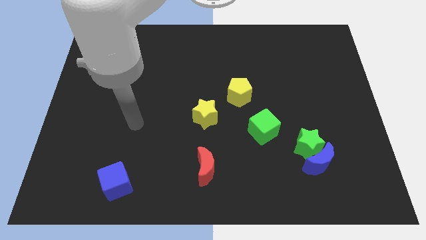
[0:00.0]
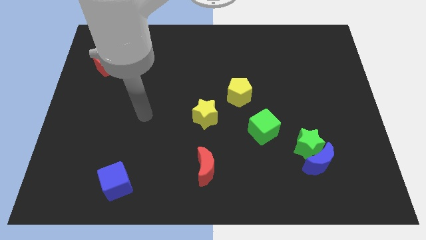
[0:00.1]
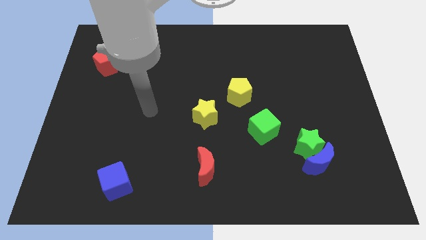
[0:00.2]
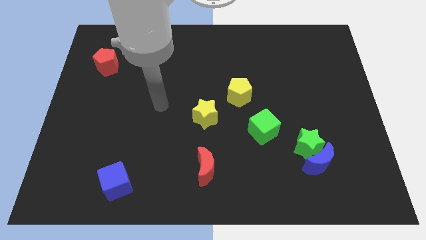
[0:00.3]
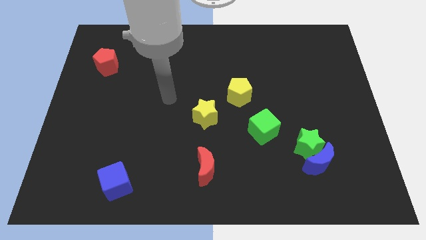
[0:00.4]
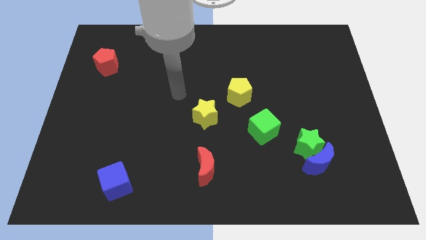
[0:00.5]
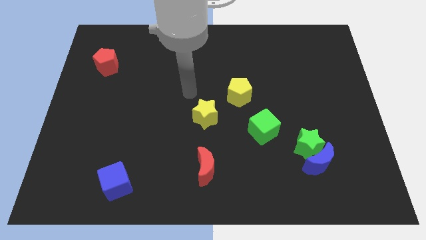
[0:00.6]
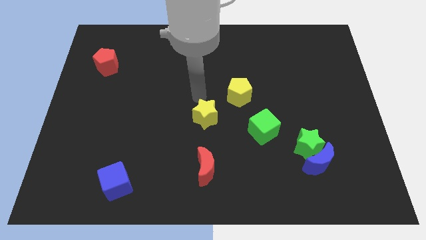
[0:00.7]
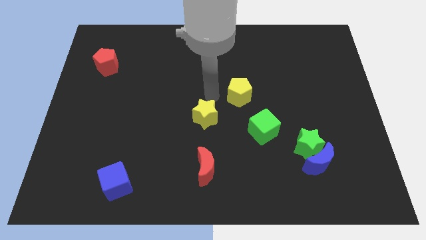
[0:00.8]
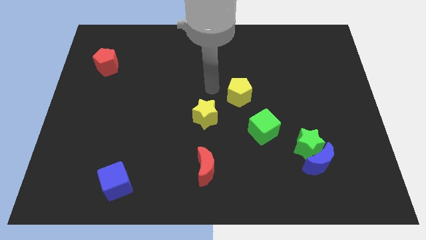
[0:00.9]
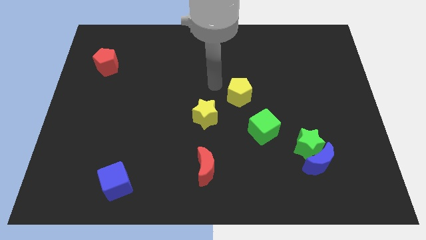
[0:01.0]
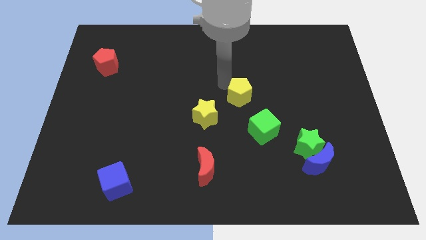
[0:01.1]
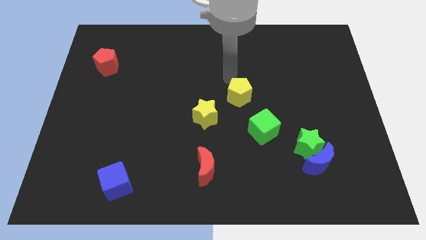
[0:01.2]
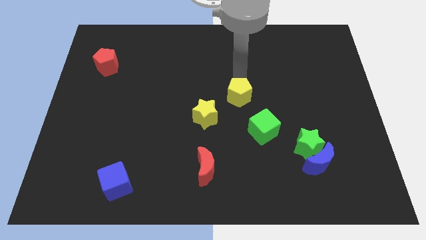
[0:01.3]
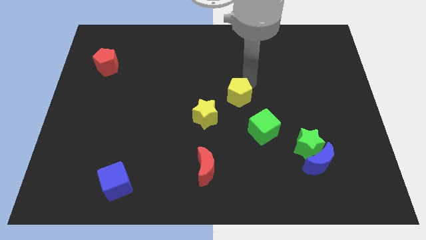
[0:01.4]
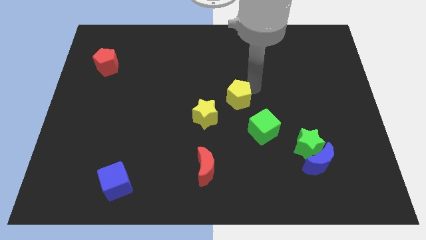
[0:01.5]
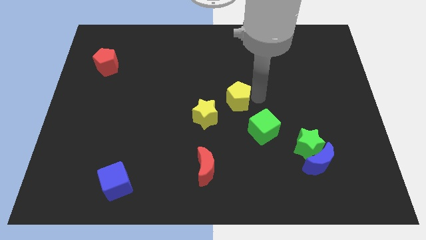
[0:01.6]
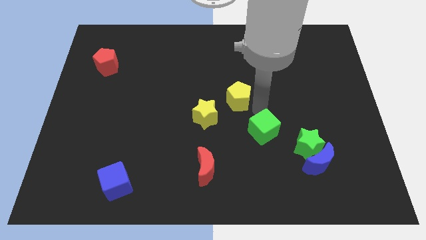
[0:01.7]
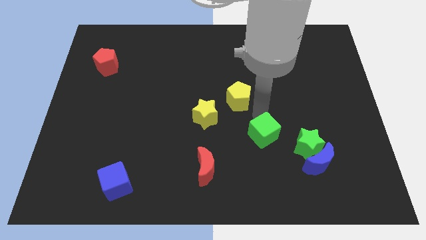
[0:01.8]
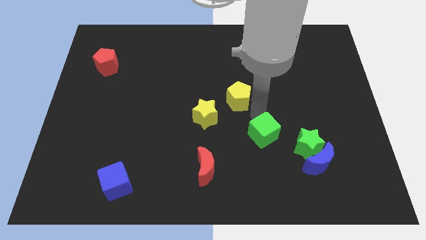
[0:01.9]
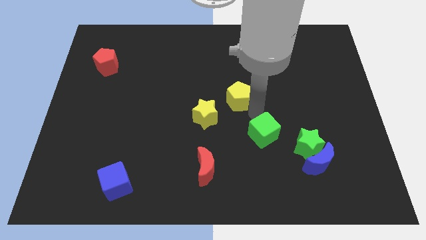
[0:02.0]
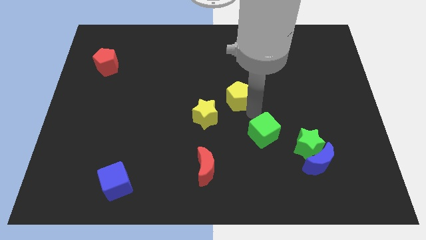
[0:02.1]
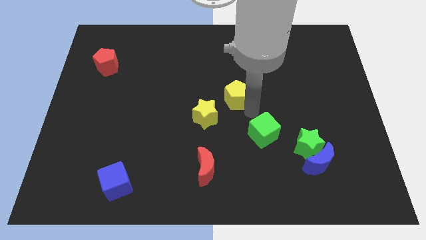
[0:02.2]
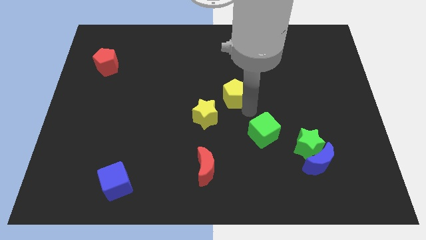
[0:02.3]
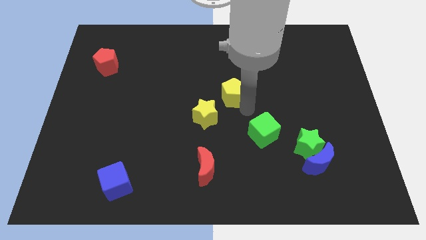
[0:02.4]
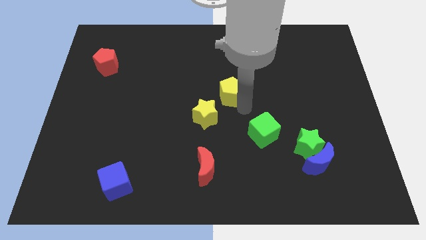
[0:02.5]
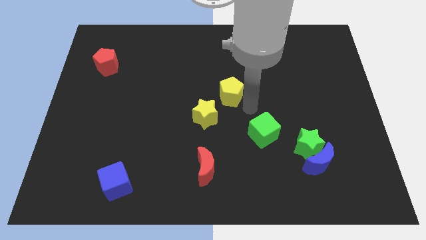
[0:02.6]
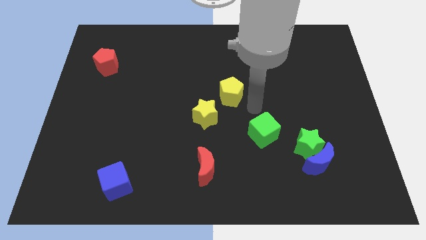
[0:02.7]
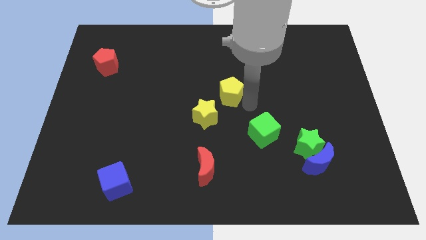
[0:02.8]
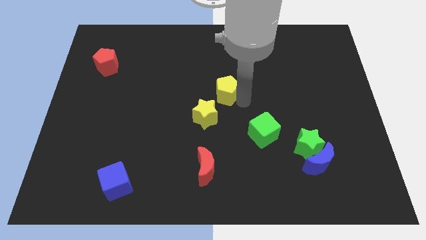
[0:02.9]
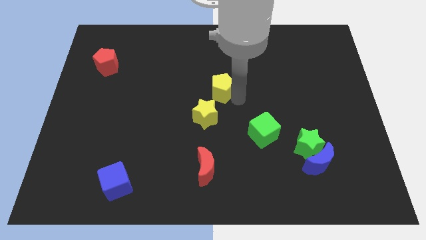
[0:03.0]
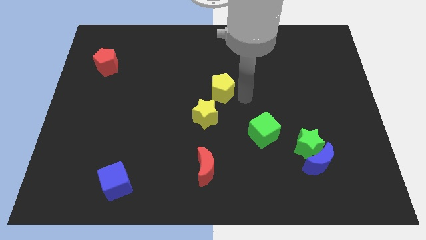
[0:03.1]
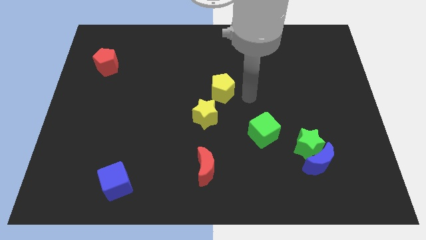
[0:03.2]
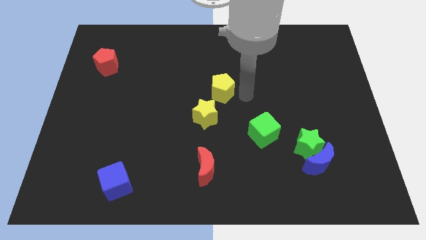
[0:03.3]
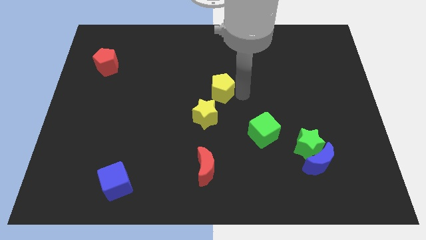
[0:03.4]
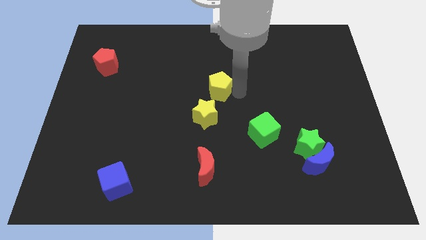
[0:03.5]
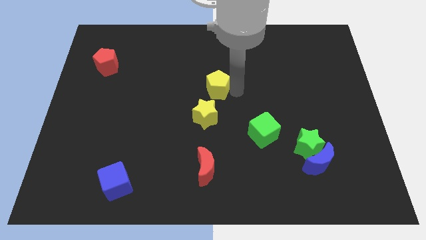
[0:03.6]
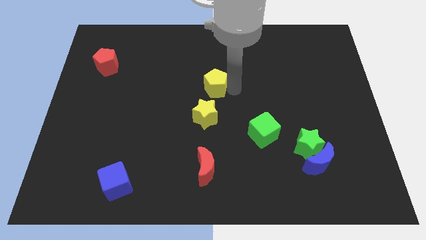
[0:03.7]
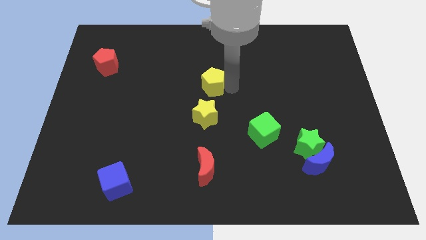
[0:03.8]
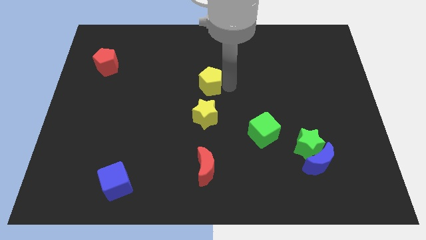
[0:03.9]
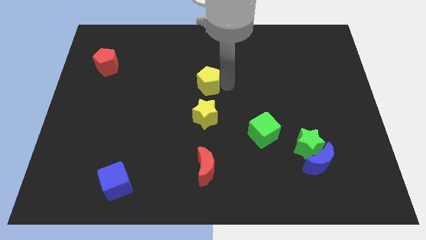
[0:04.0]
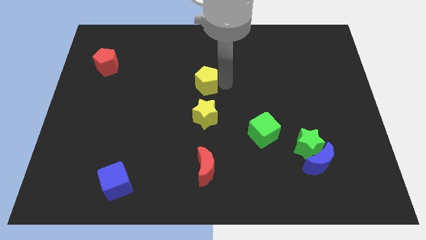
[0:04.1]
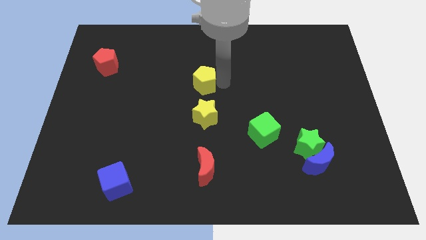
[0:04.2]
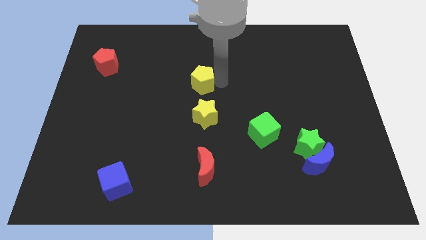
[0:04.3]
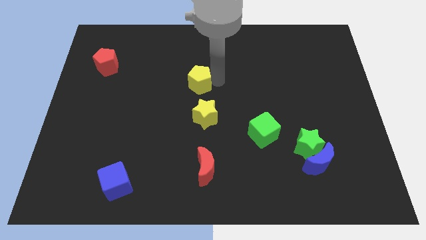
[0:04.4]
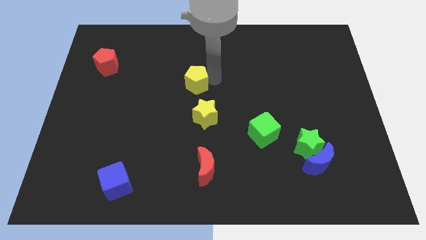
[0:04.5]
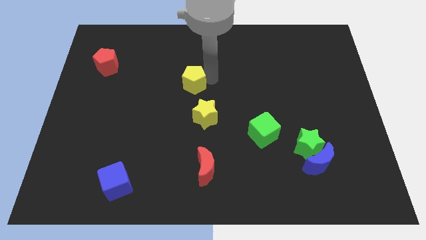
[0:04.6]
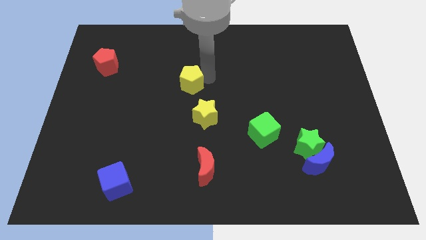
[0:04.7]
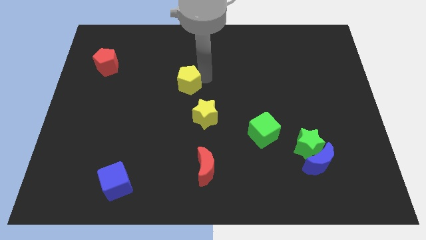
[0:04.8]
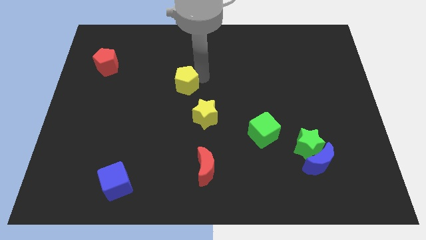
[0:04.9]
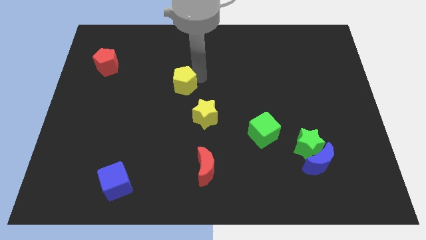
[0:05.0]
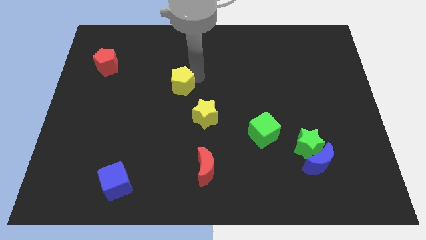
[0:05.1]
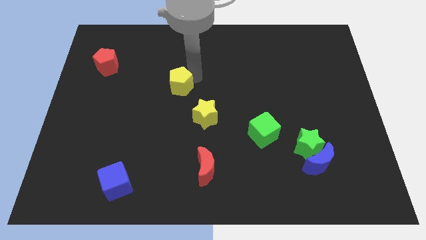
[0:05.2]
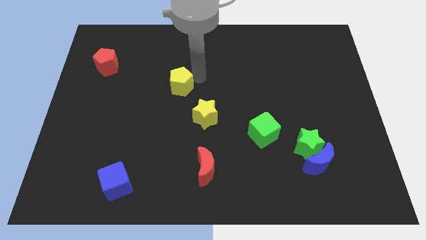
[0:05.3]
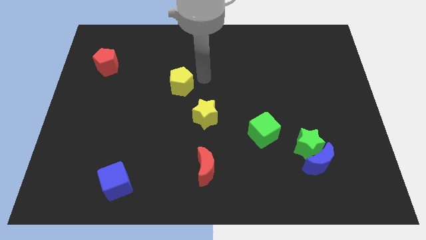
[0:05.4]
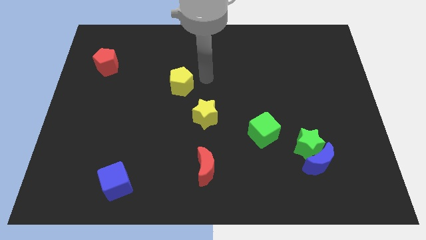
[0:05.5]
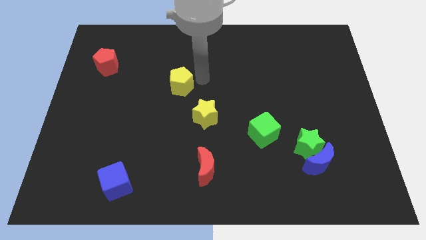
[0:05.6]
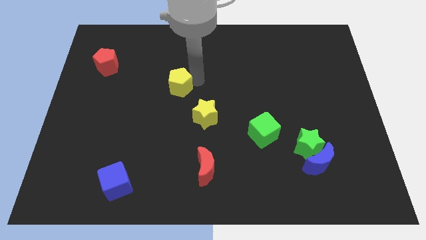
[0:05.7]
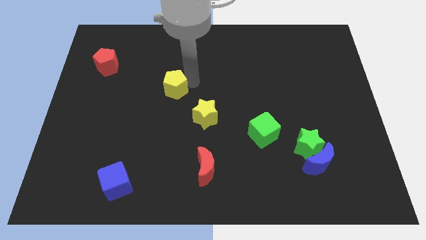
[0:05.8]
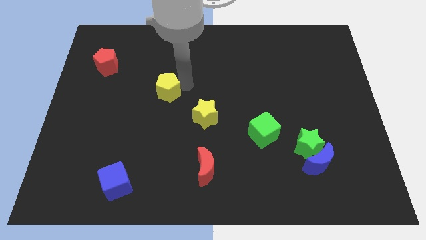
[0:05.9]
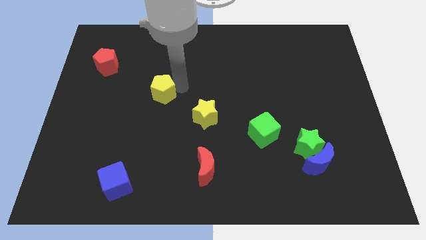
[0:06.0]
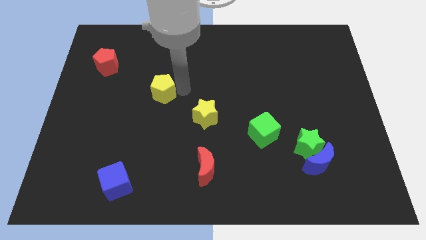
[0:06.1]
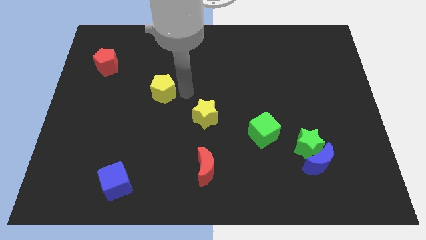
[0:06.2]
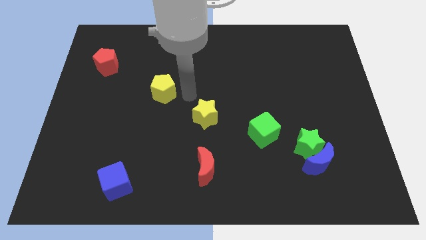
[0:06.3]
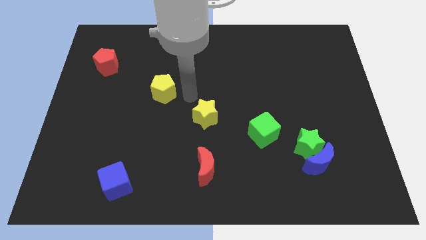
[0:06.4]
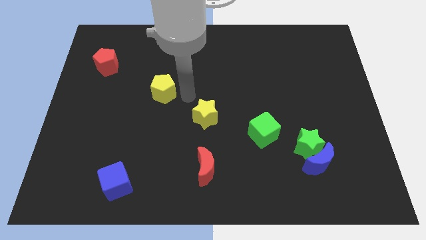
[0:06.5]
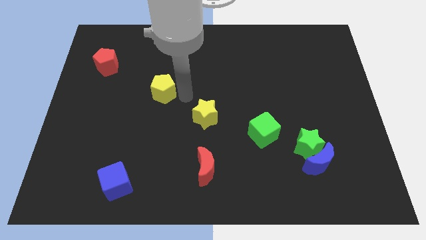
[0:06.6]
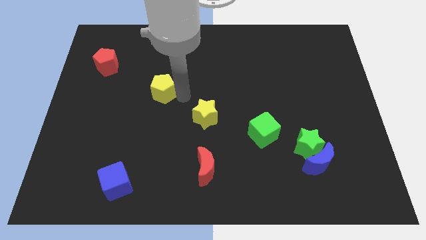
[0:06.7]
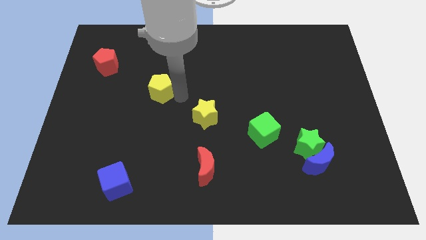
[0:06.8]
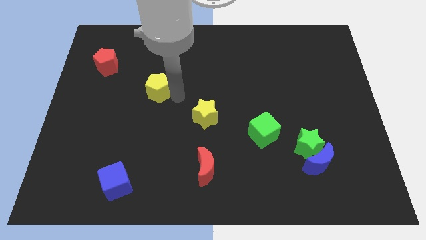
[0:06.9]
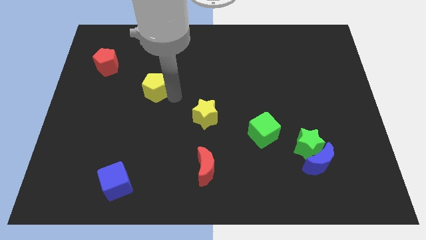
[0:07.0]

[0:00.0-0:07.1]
slide the yellow pentagon left

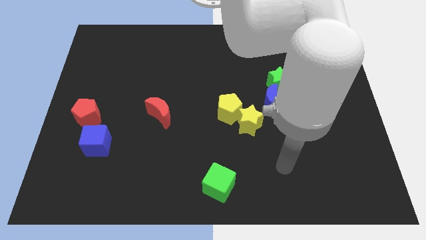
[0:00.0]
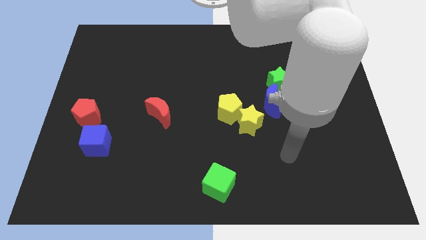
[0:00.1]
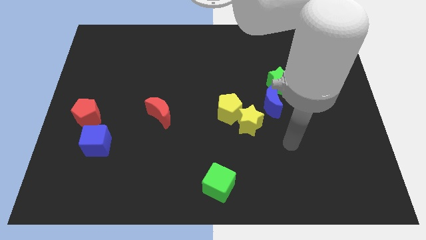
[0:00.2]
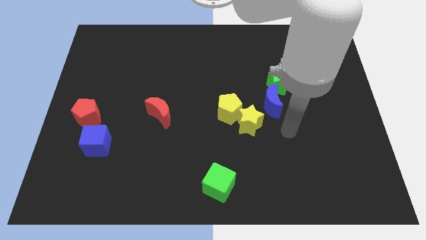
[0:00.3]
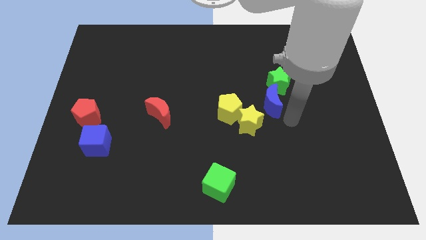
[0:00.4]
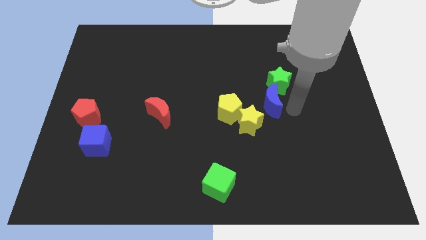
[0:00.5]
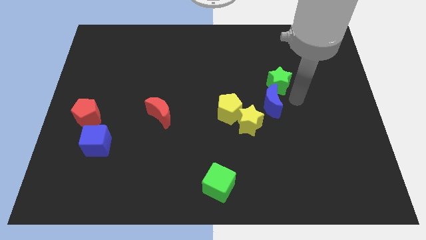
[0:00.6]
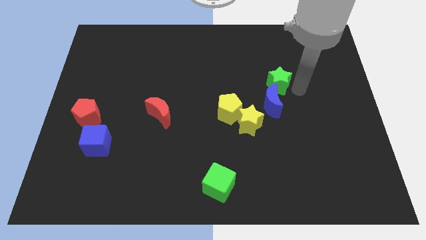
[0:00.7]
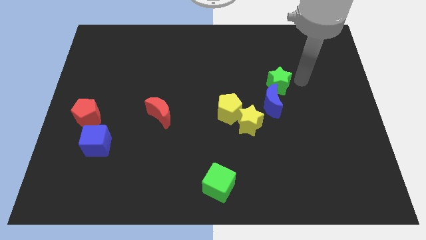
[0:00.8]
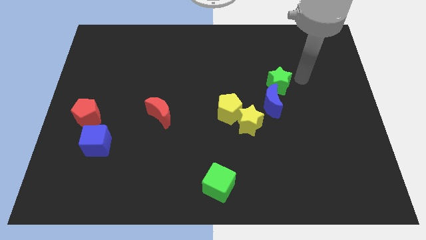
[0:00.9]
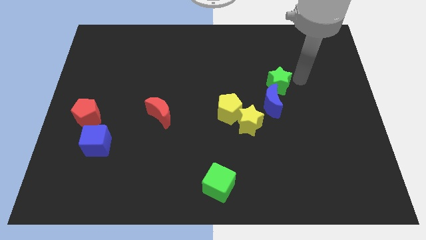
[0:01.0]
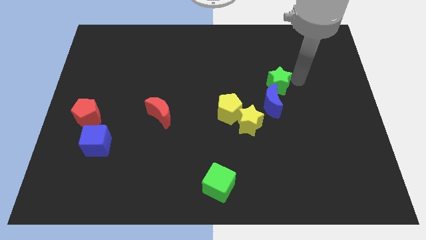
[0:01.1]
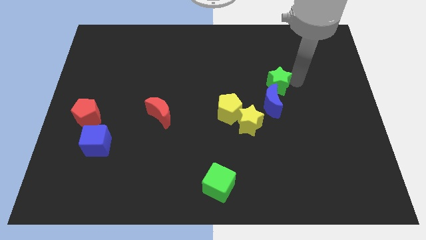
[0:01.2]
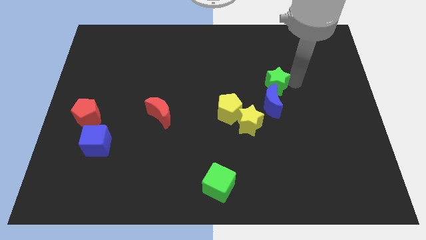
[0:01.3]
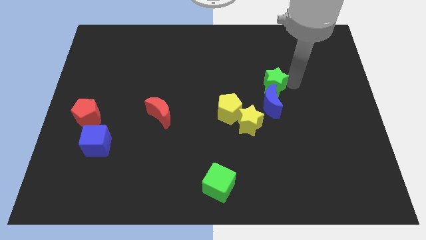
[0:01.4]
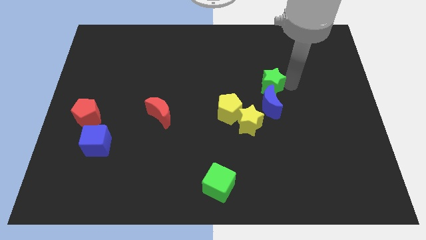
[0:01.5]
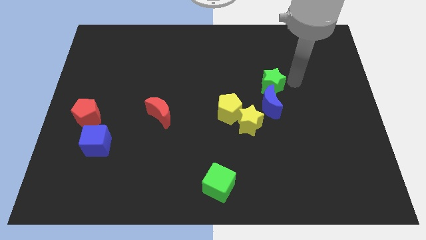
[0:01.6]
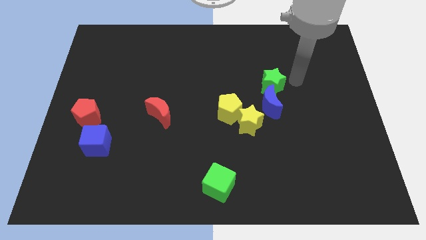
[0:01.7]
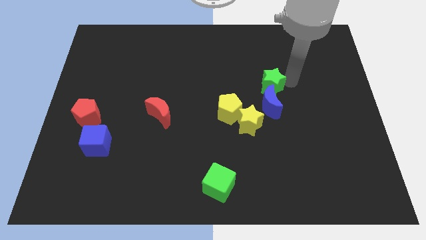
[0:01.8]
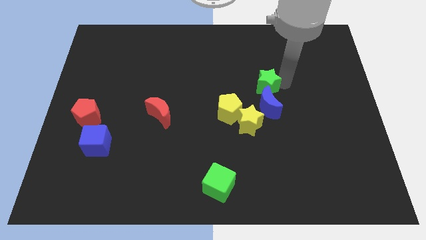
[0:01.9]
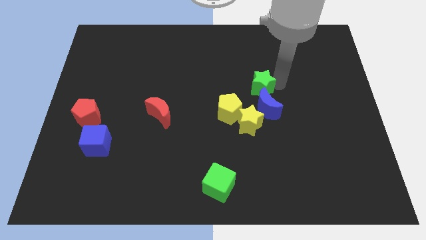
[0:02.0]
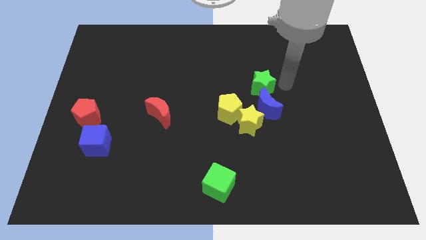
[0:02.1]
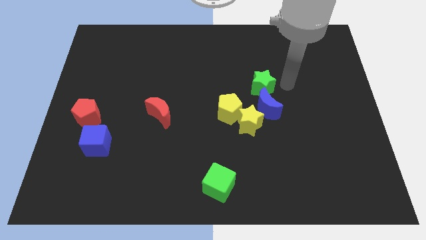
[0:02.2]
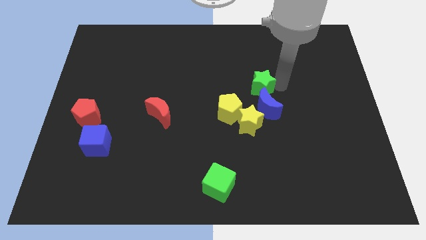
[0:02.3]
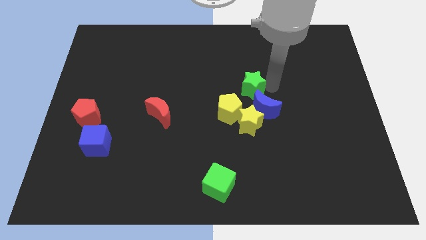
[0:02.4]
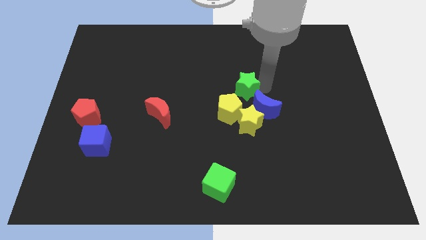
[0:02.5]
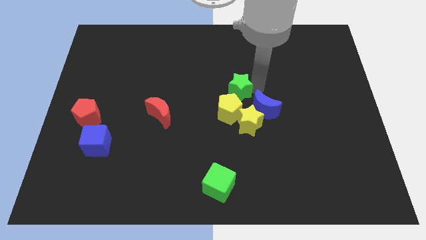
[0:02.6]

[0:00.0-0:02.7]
slightly move the green star diagonally down and left
